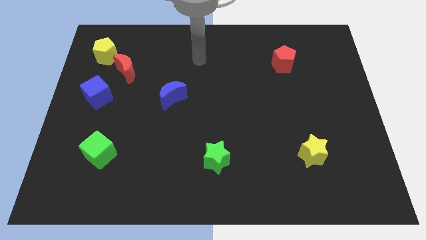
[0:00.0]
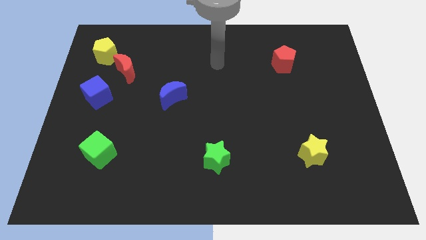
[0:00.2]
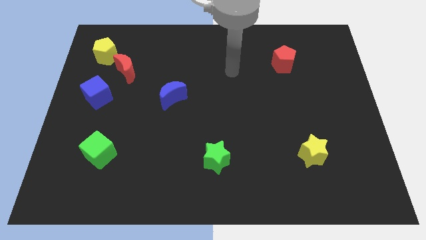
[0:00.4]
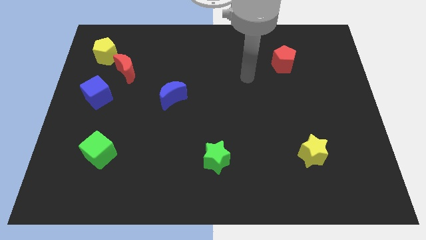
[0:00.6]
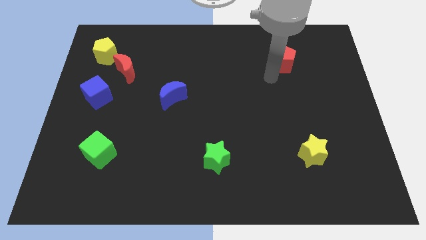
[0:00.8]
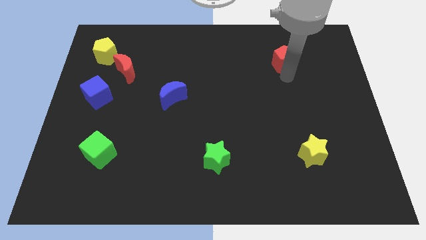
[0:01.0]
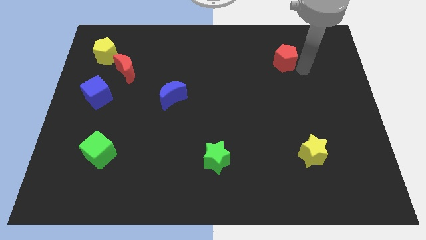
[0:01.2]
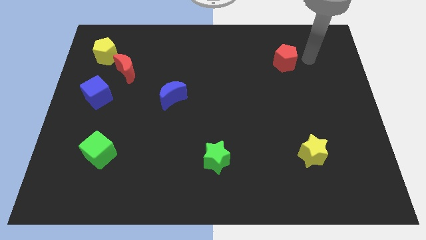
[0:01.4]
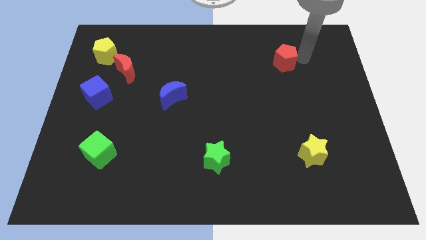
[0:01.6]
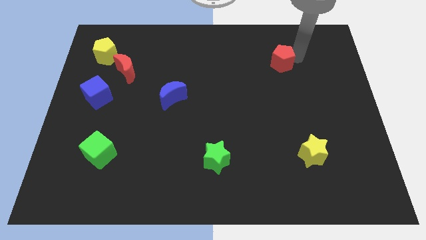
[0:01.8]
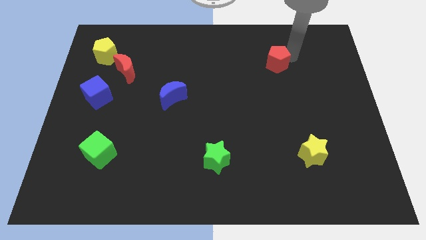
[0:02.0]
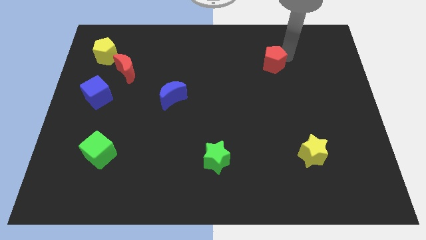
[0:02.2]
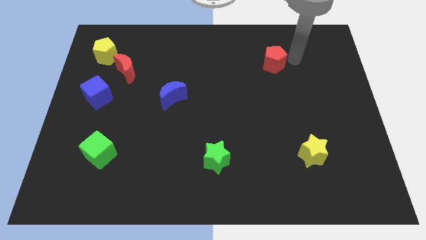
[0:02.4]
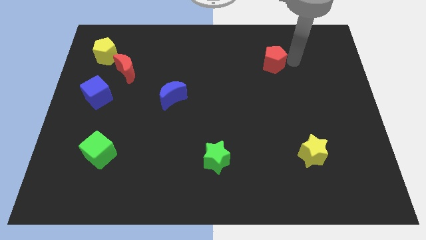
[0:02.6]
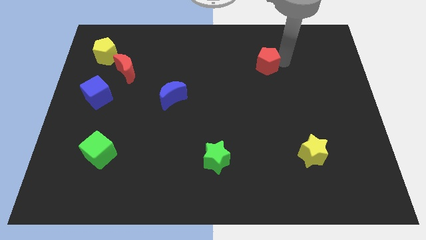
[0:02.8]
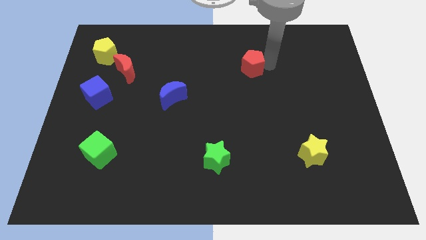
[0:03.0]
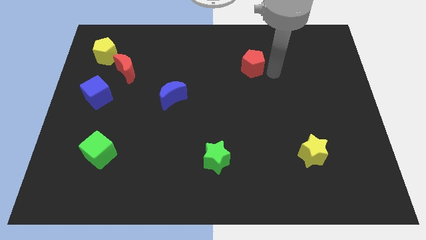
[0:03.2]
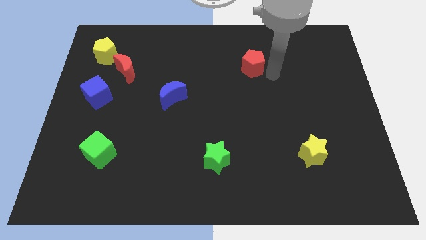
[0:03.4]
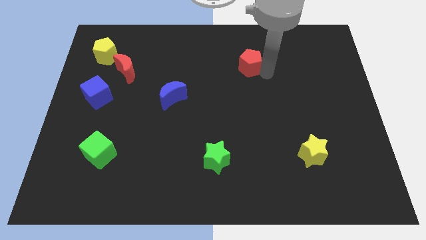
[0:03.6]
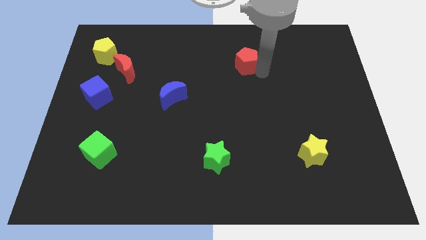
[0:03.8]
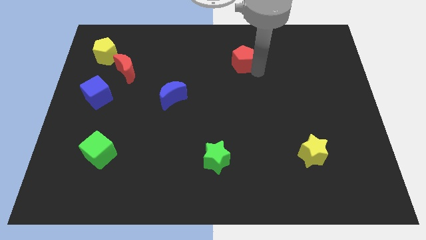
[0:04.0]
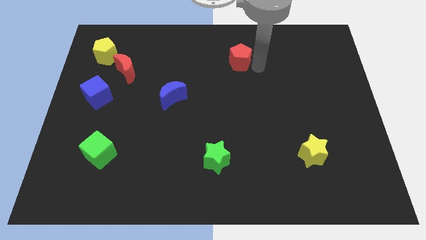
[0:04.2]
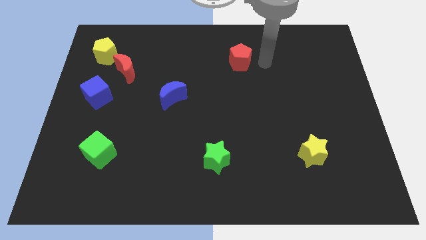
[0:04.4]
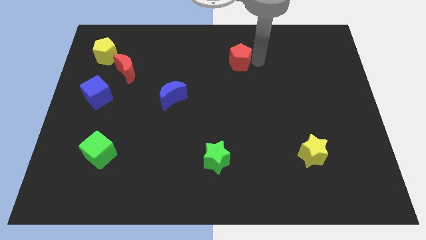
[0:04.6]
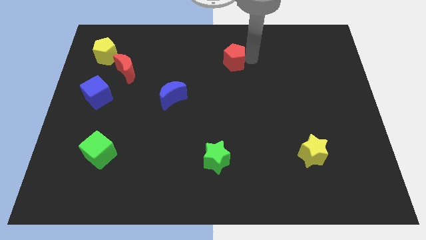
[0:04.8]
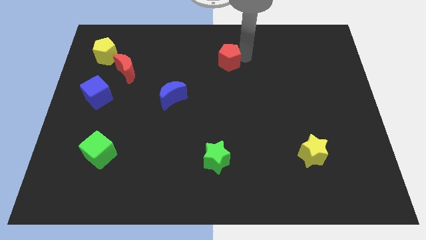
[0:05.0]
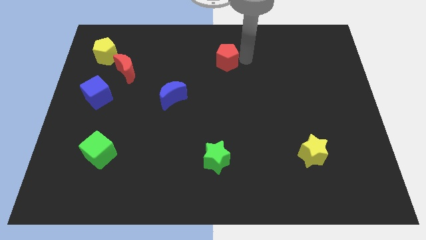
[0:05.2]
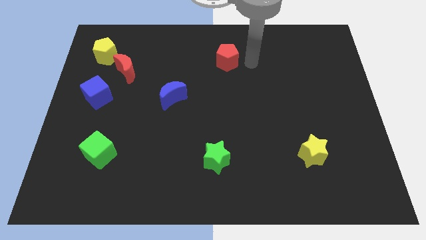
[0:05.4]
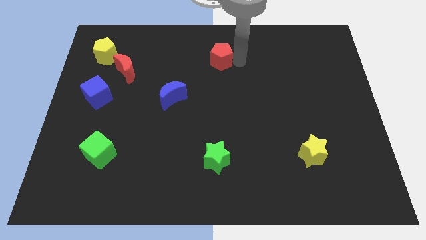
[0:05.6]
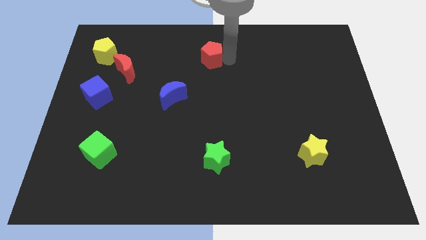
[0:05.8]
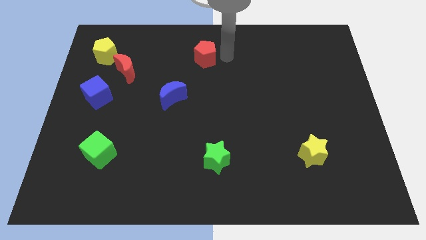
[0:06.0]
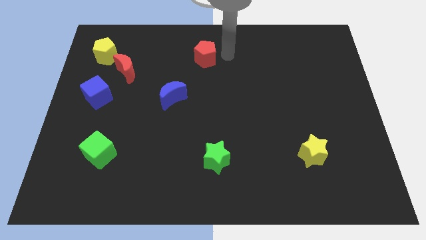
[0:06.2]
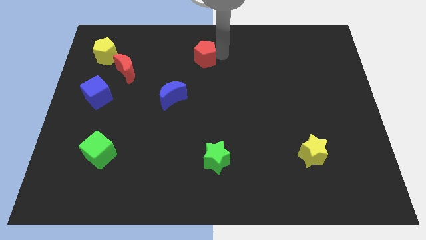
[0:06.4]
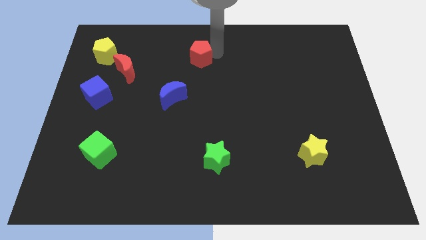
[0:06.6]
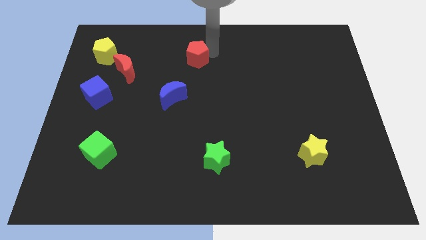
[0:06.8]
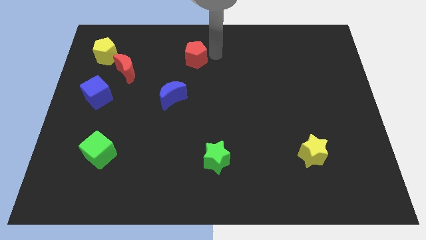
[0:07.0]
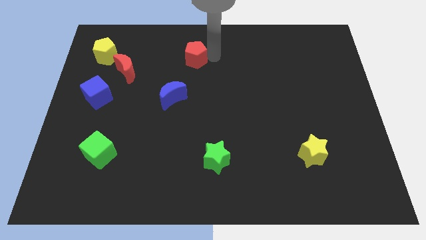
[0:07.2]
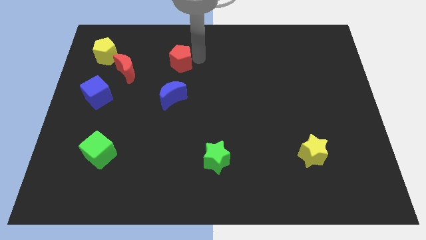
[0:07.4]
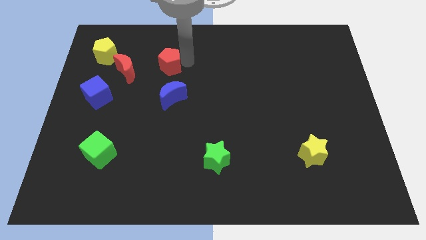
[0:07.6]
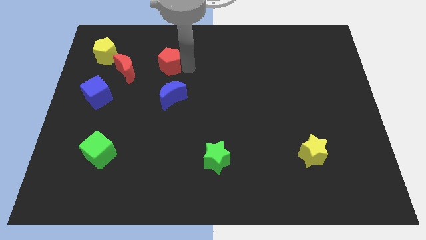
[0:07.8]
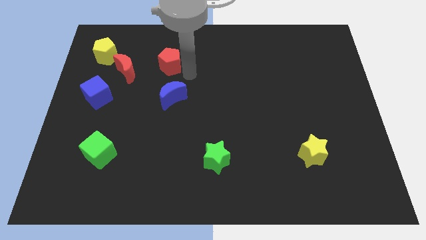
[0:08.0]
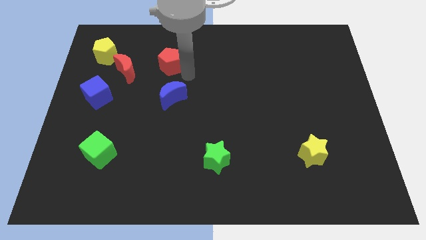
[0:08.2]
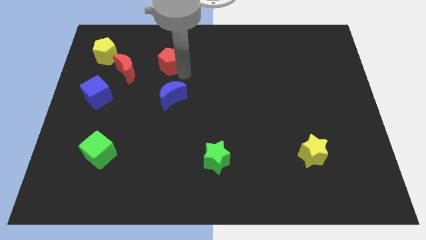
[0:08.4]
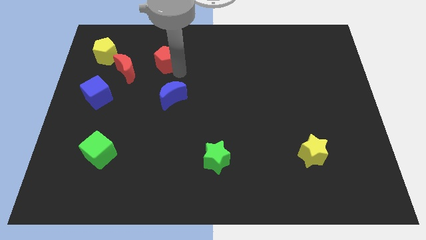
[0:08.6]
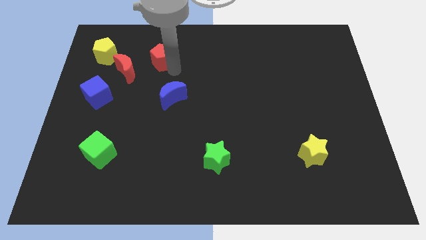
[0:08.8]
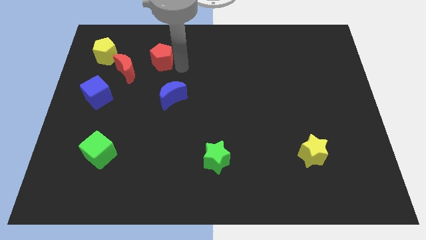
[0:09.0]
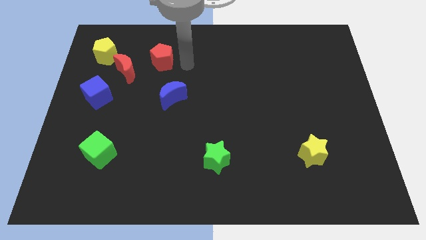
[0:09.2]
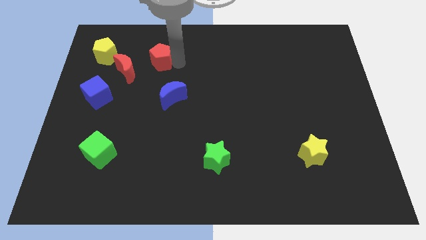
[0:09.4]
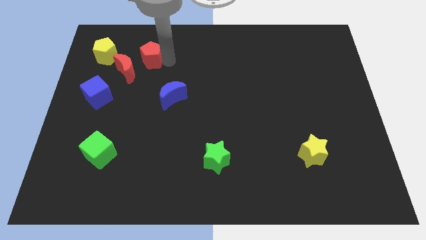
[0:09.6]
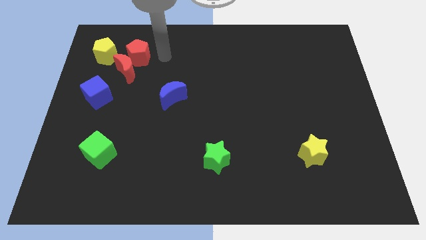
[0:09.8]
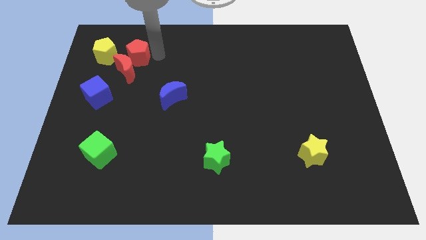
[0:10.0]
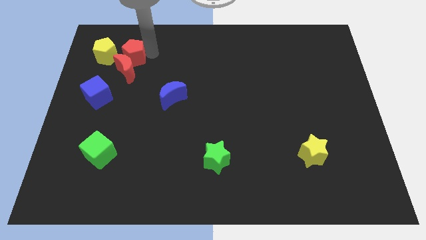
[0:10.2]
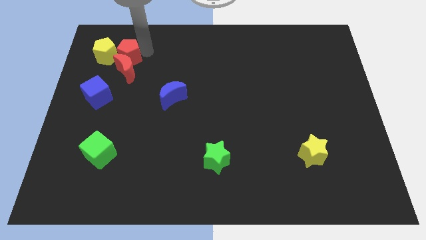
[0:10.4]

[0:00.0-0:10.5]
push the red pentagon close to the yellow pentagon

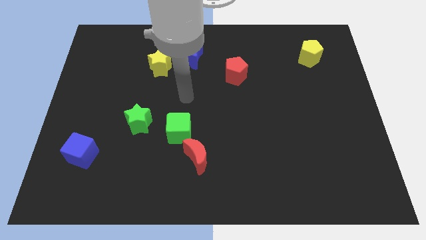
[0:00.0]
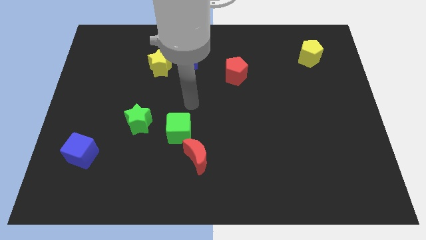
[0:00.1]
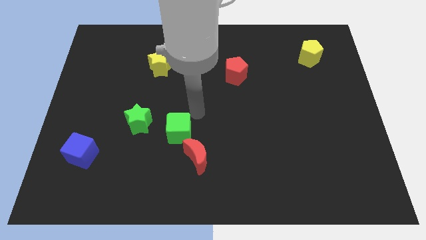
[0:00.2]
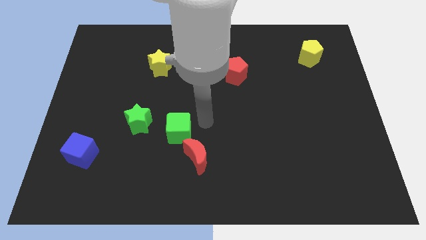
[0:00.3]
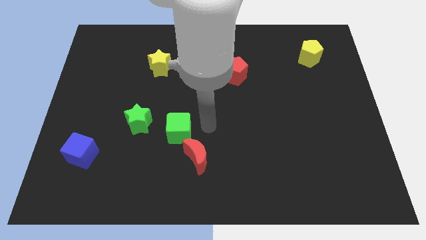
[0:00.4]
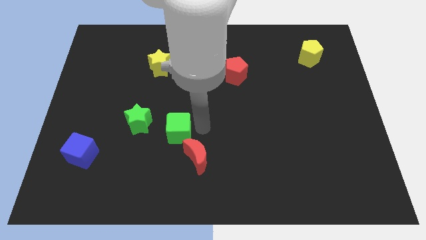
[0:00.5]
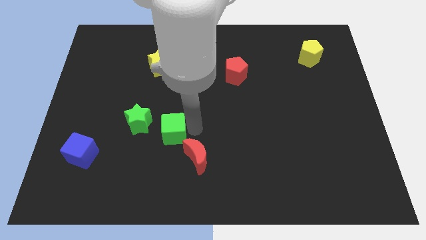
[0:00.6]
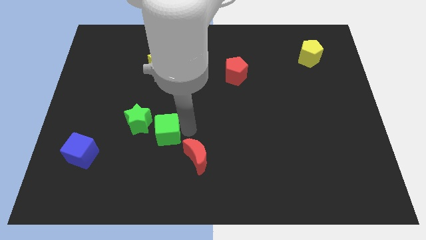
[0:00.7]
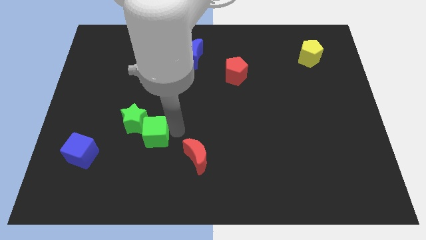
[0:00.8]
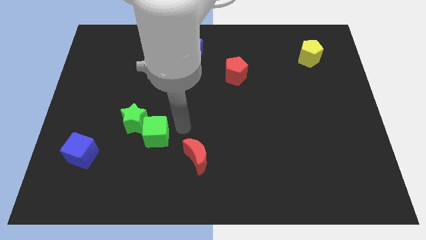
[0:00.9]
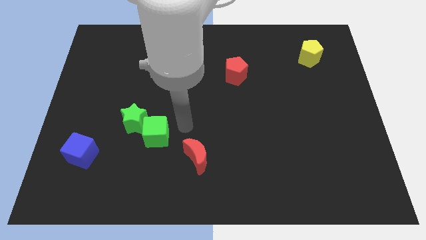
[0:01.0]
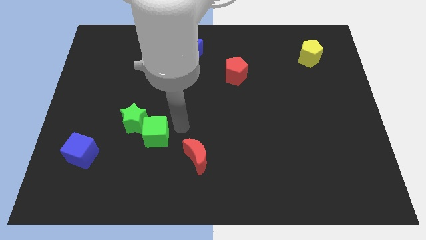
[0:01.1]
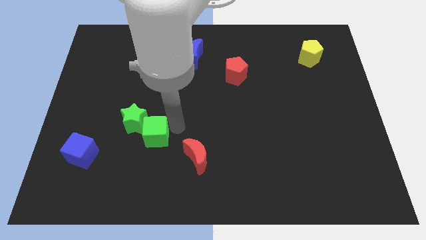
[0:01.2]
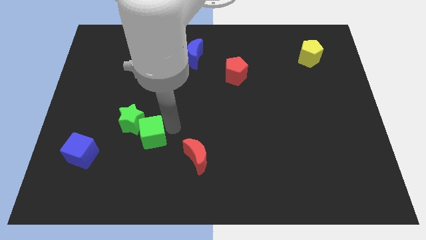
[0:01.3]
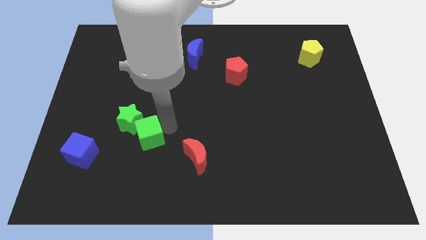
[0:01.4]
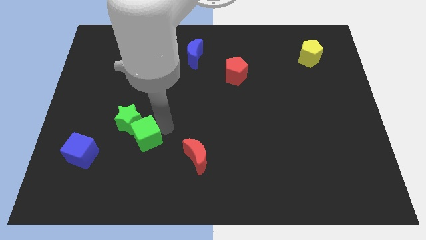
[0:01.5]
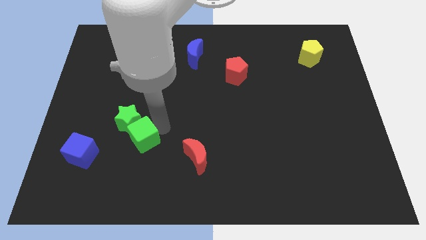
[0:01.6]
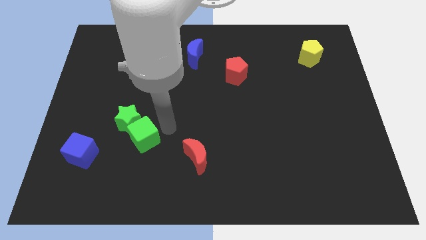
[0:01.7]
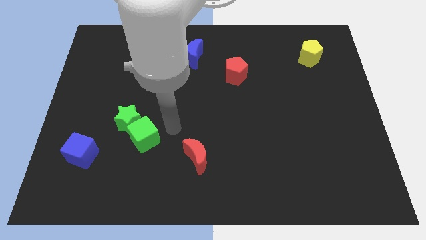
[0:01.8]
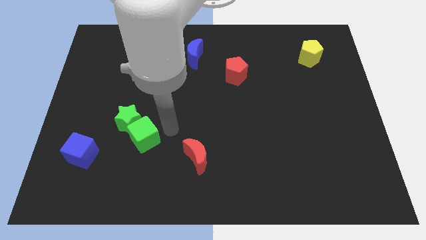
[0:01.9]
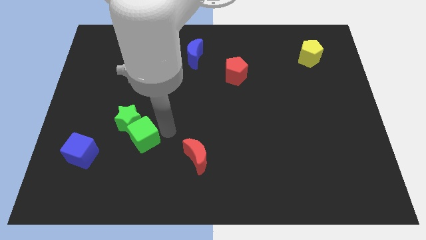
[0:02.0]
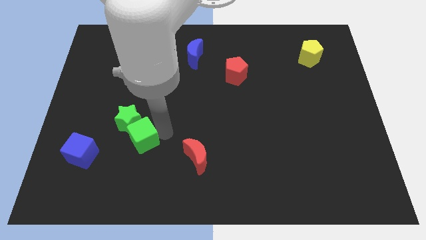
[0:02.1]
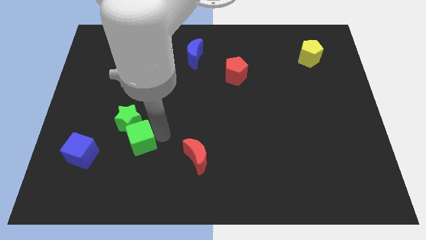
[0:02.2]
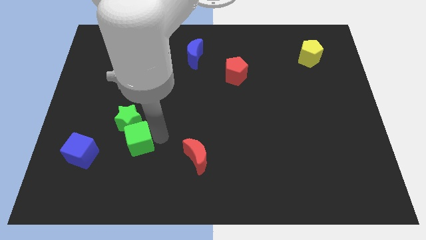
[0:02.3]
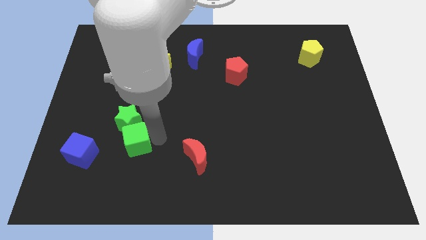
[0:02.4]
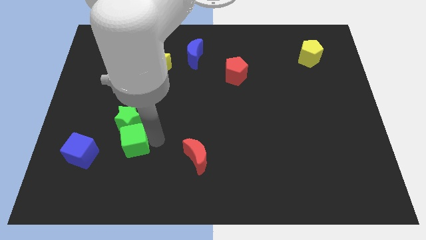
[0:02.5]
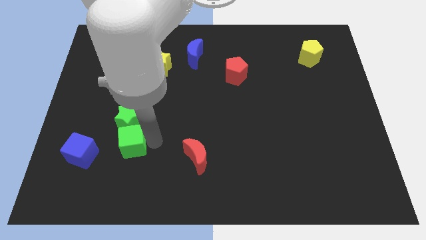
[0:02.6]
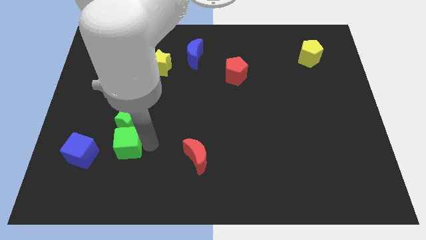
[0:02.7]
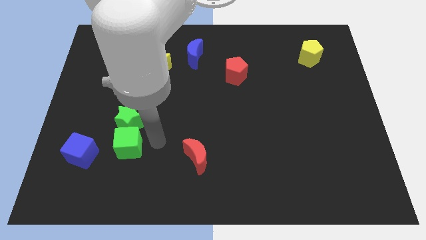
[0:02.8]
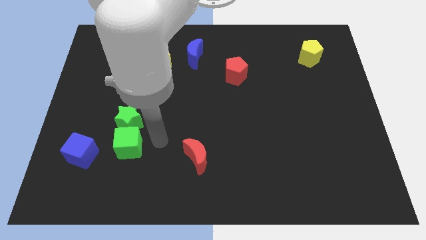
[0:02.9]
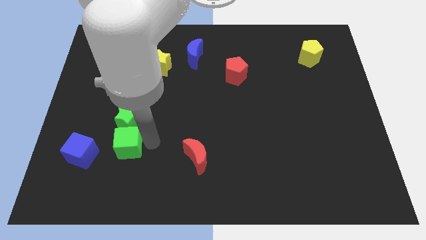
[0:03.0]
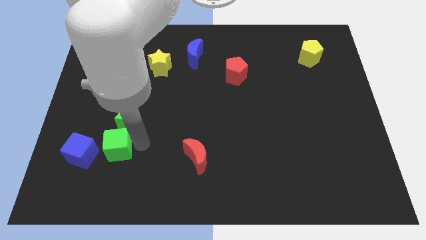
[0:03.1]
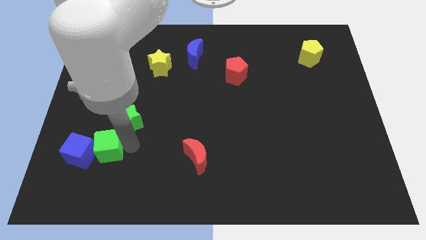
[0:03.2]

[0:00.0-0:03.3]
slide the green cube to the blue cube
